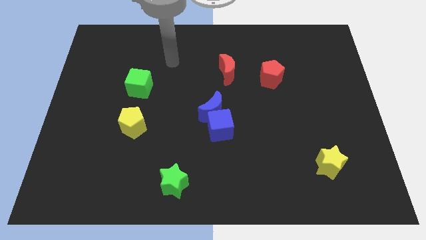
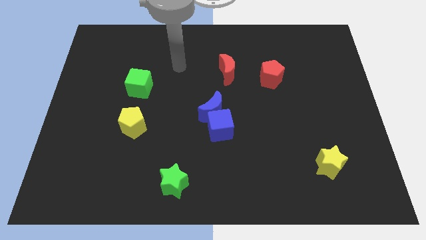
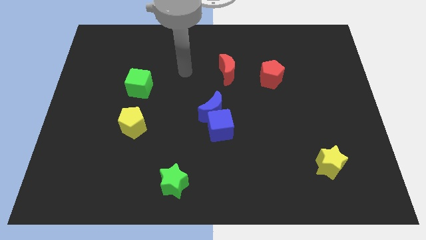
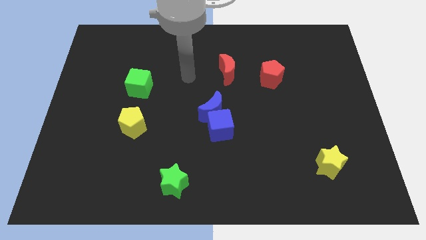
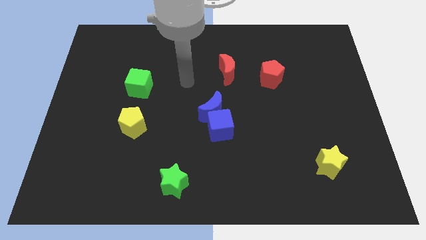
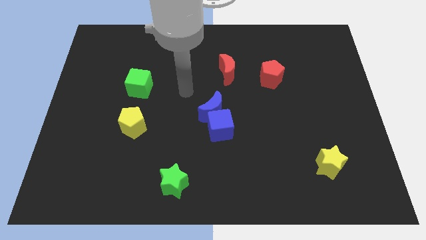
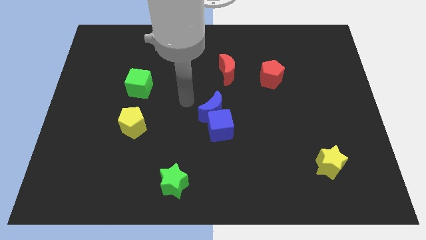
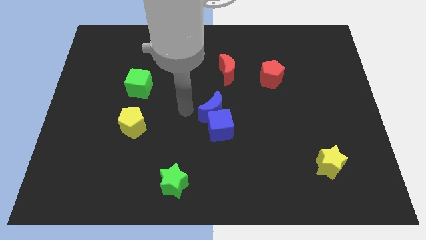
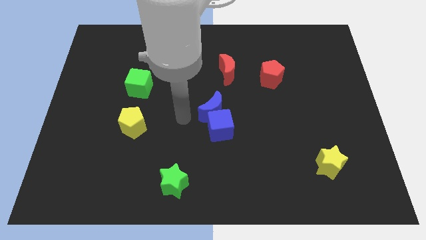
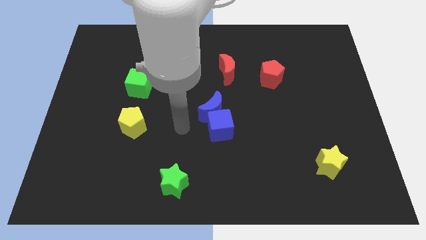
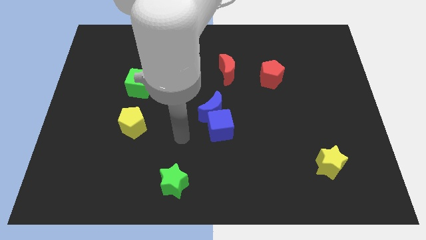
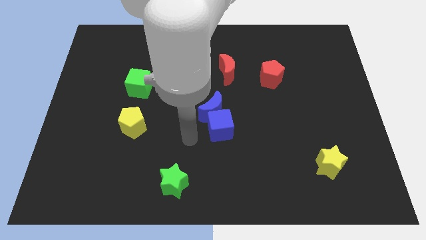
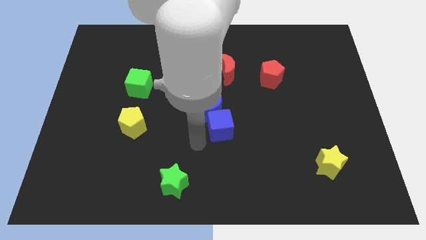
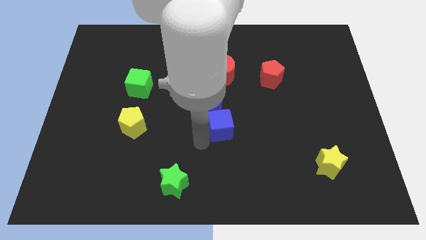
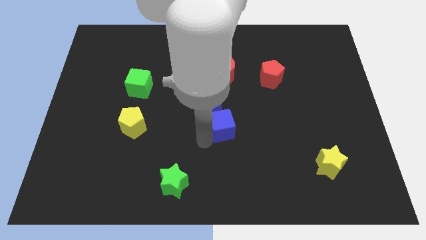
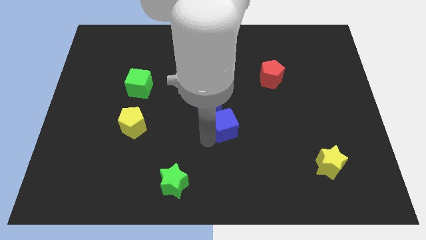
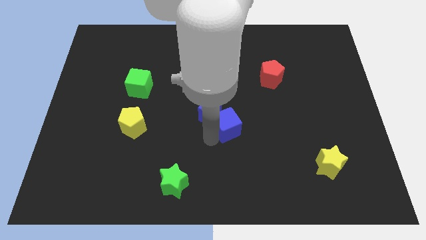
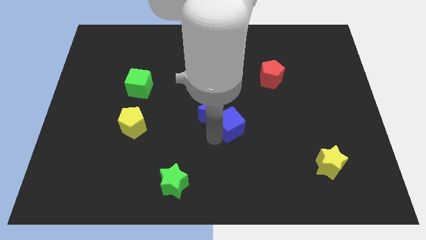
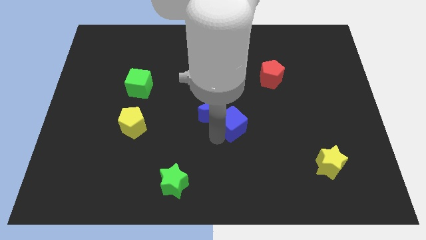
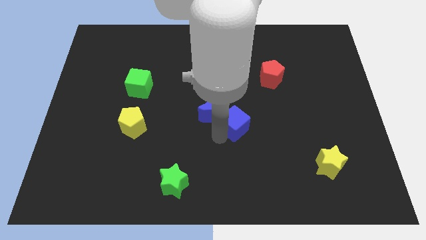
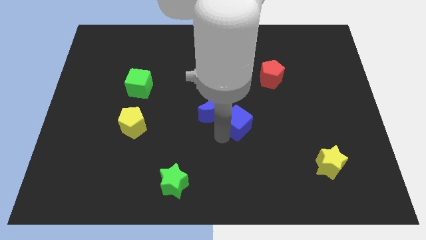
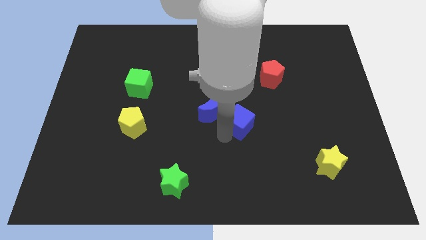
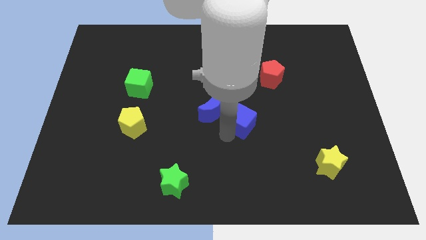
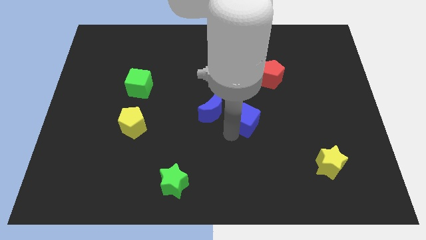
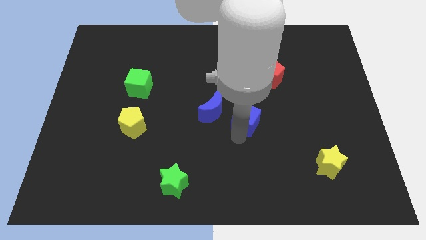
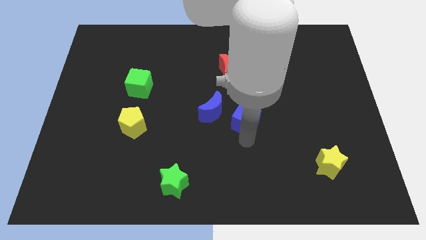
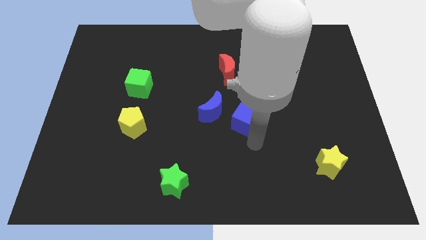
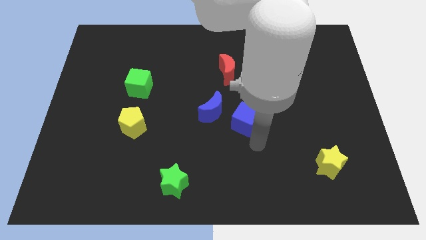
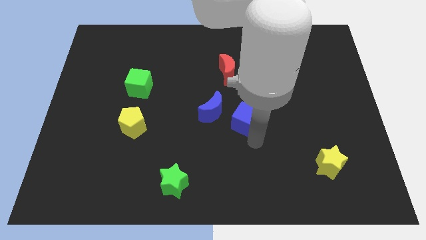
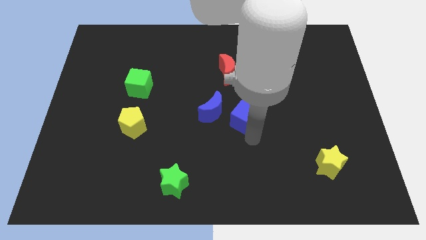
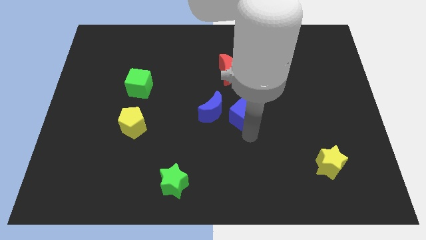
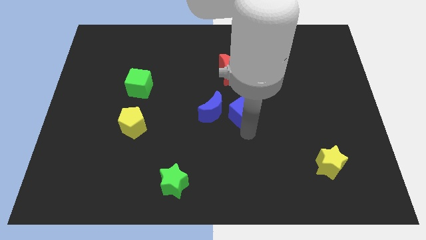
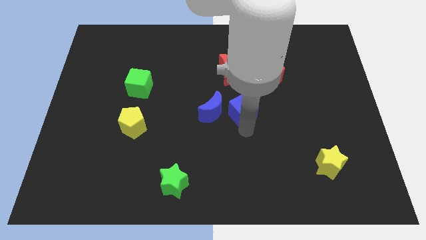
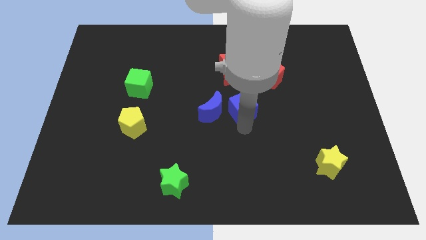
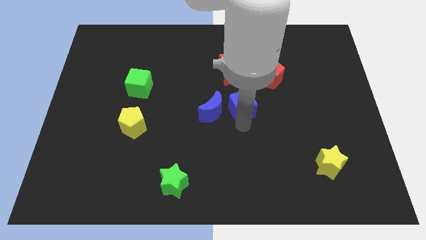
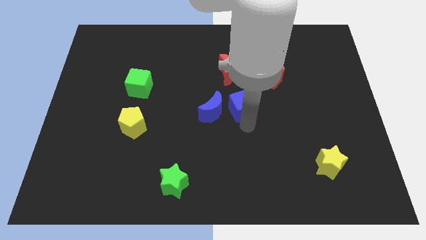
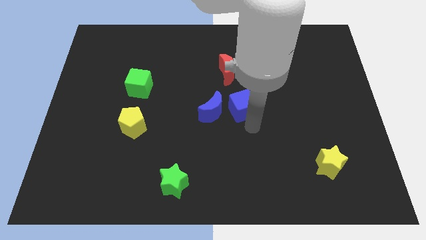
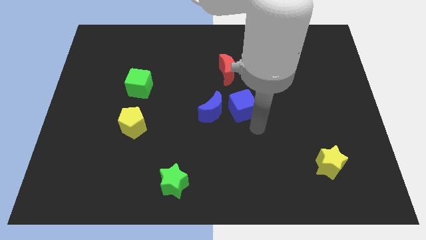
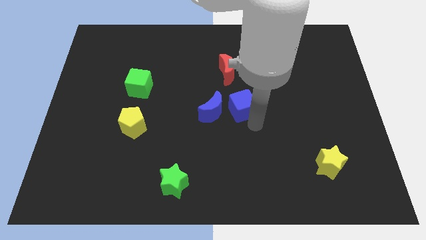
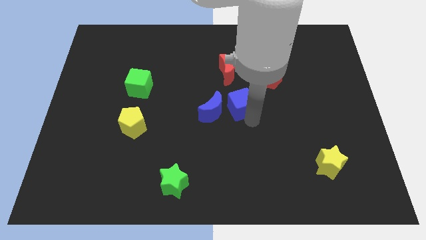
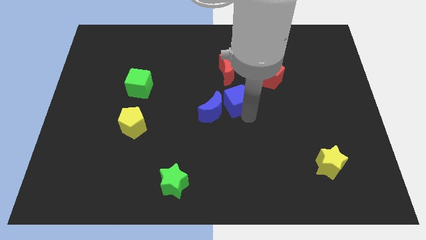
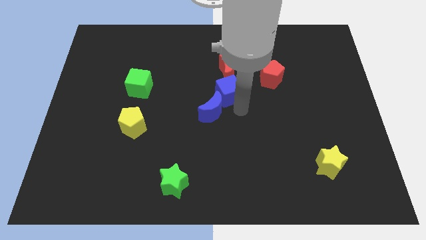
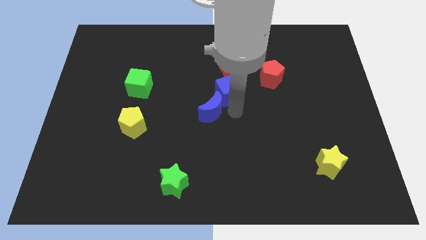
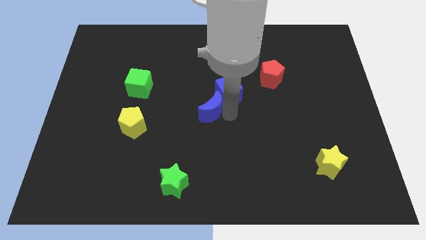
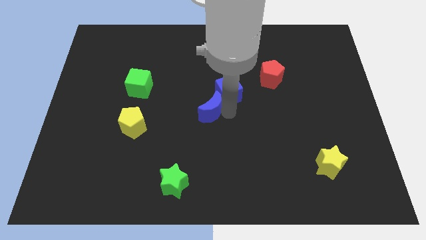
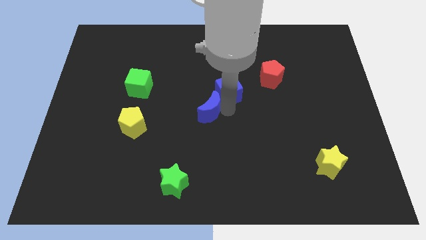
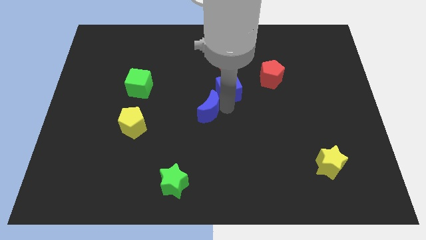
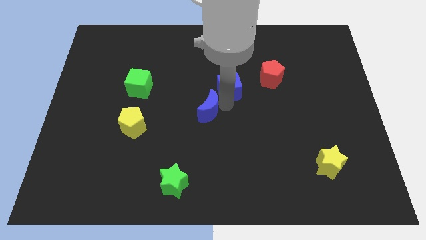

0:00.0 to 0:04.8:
push the blue cube to the red moon

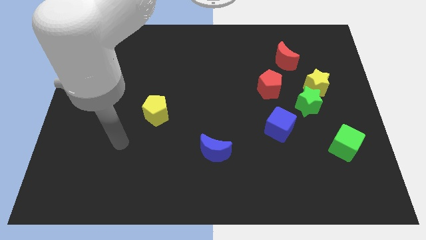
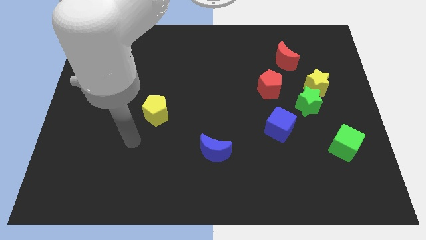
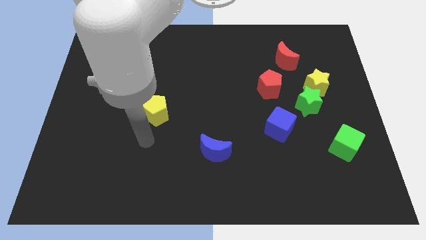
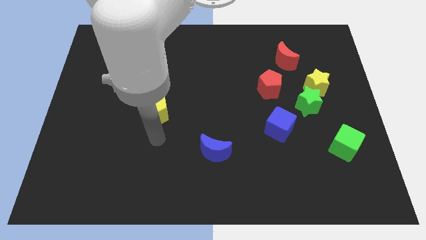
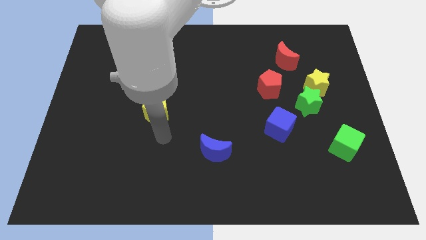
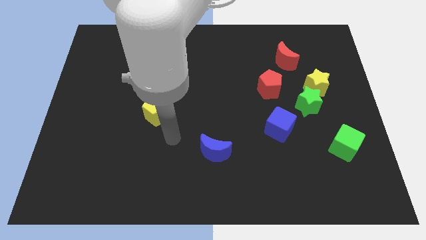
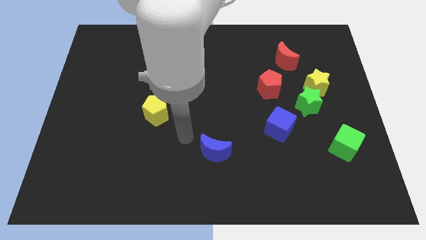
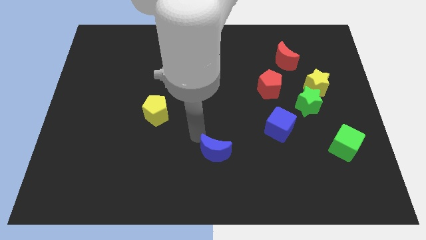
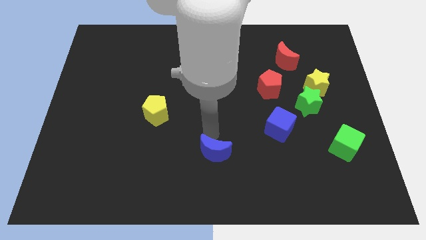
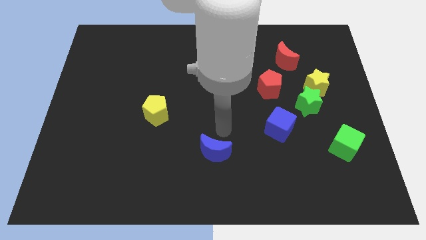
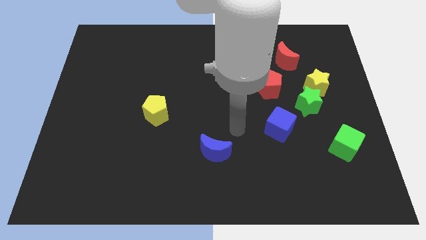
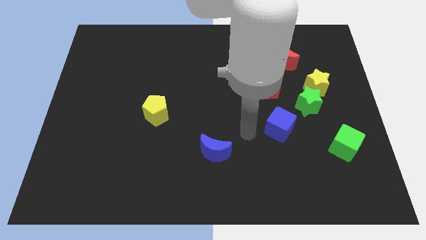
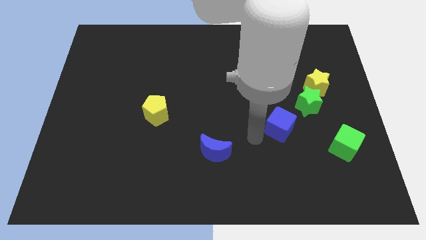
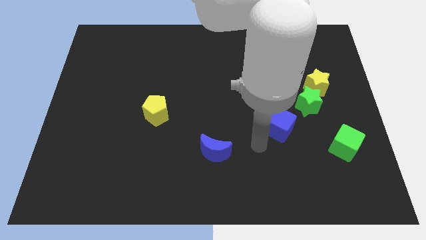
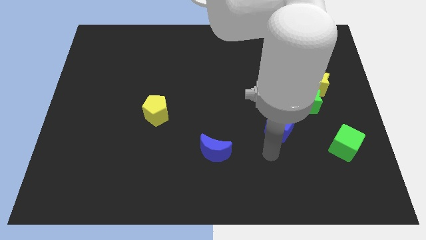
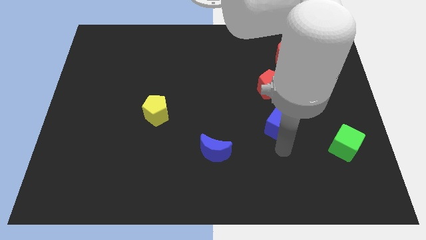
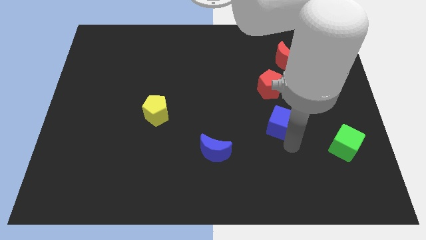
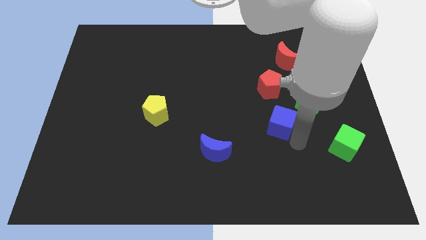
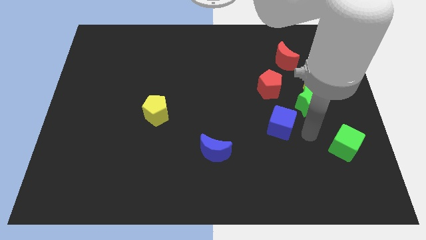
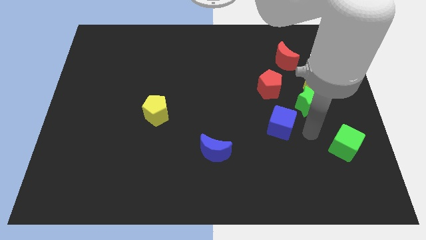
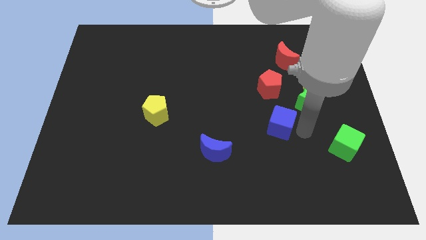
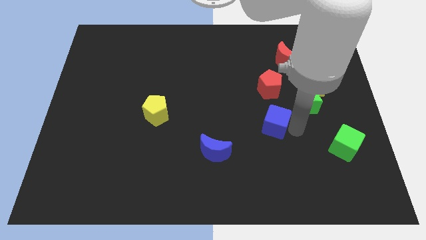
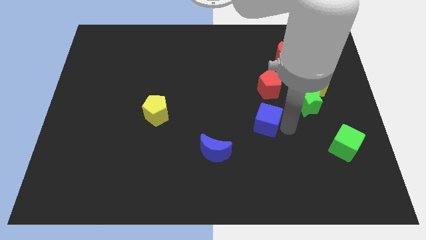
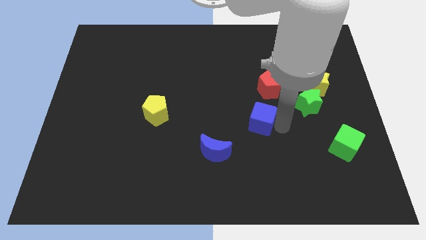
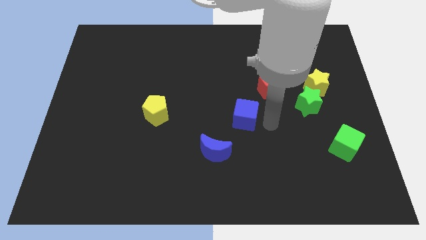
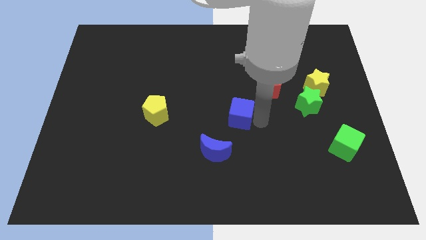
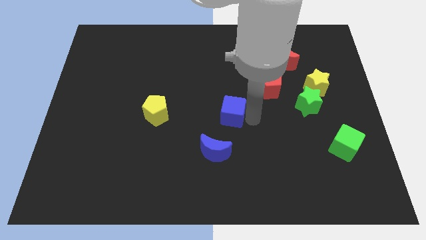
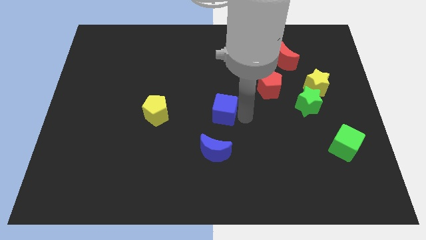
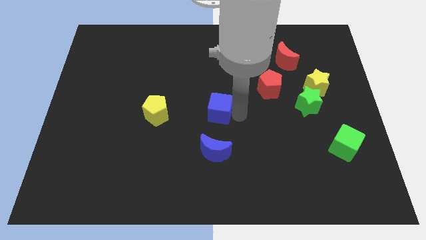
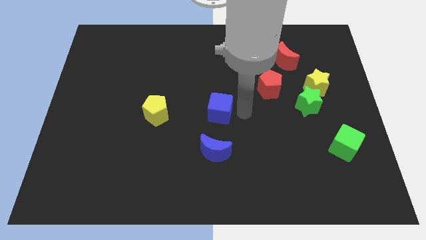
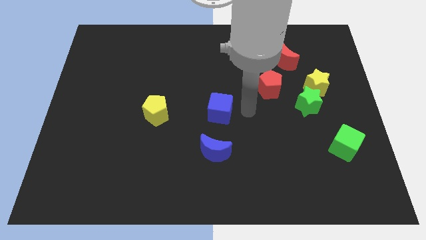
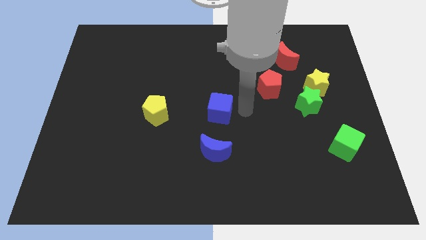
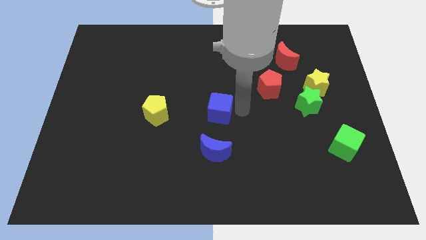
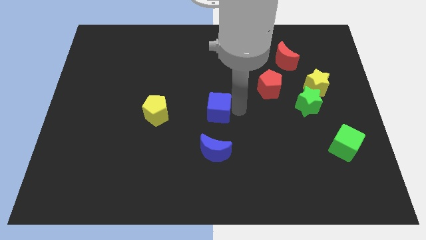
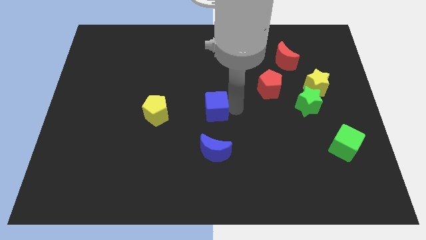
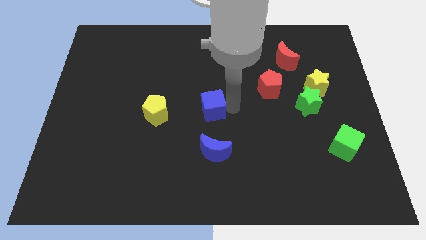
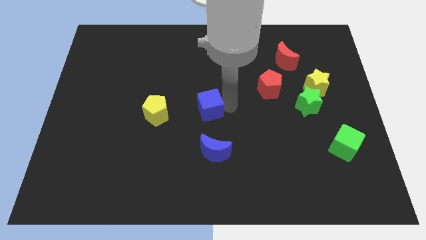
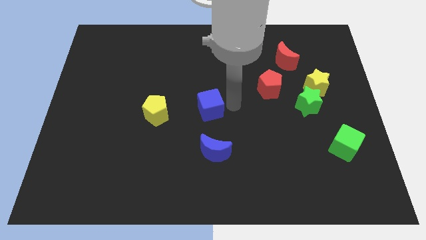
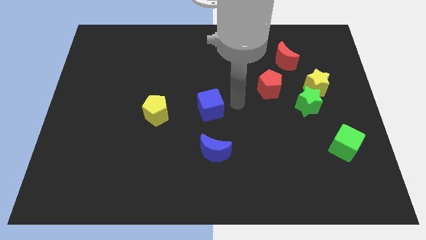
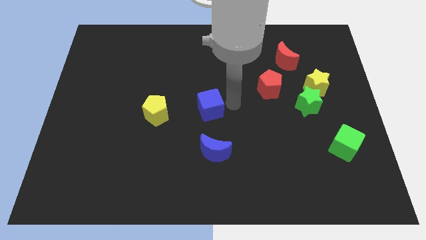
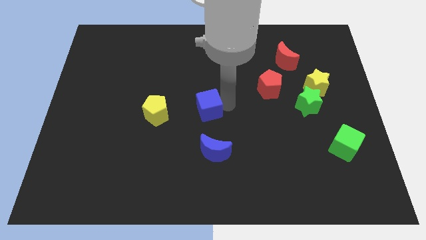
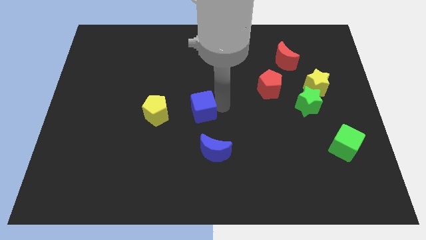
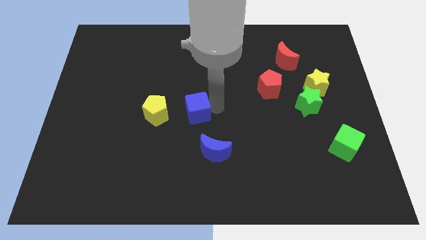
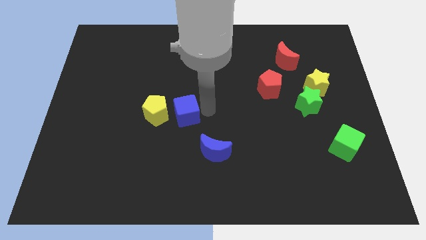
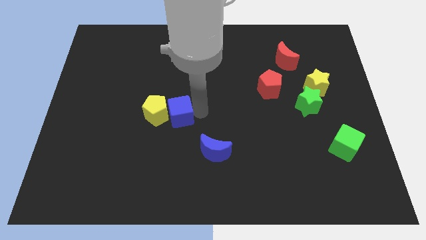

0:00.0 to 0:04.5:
put the blue cube close to the yellow pentagon
